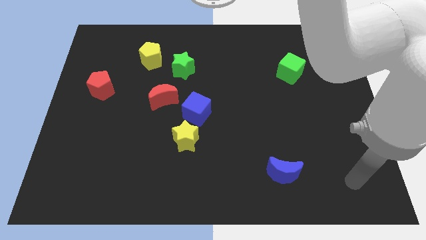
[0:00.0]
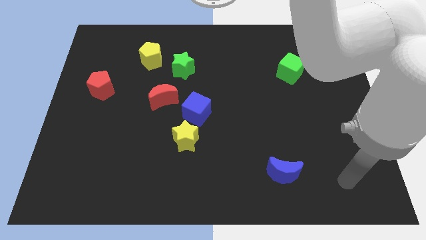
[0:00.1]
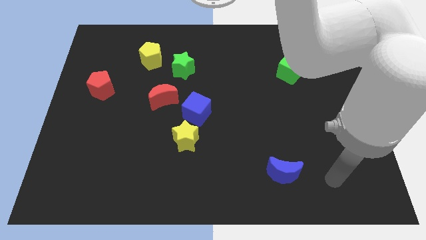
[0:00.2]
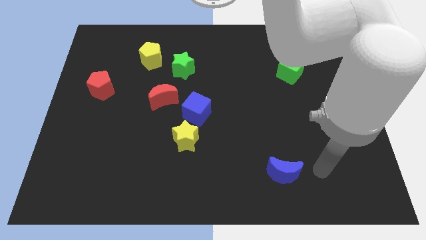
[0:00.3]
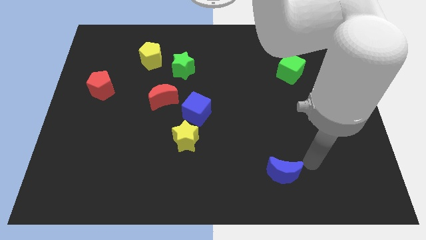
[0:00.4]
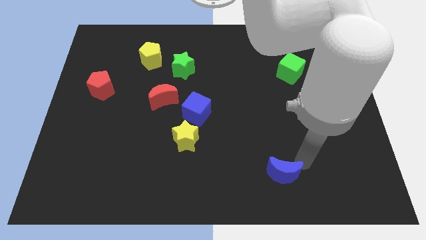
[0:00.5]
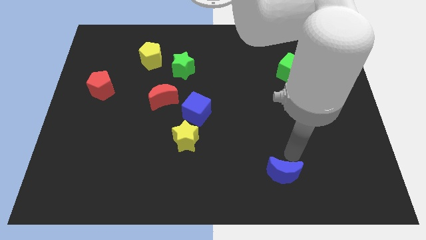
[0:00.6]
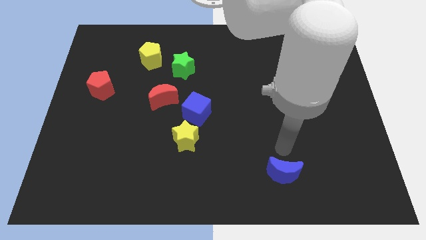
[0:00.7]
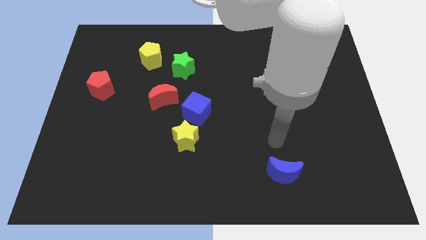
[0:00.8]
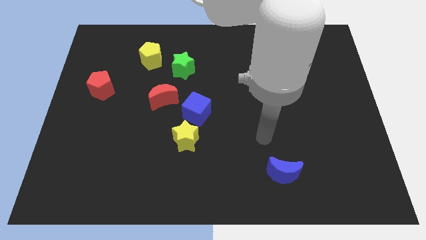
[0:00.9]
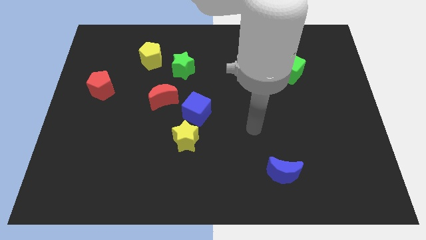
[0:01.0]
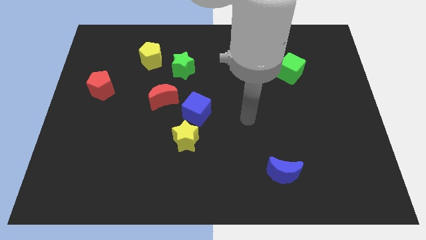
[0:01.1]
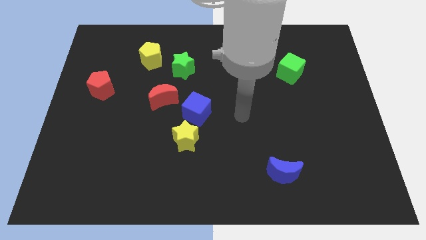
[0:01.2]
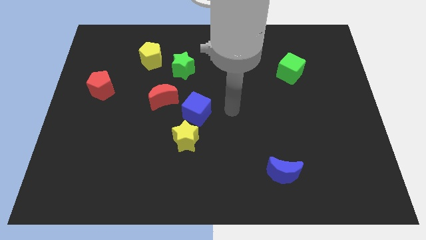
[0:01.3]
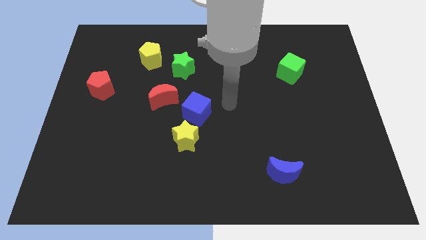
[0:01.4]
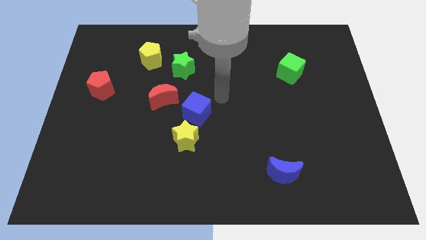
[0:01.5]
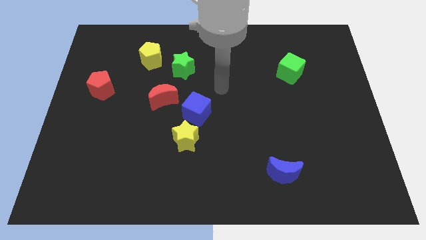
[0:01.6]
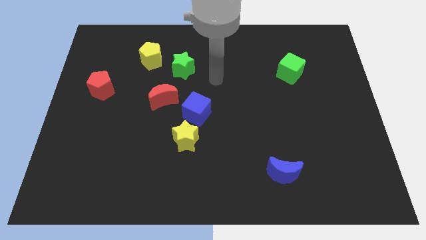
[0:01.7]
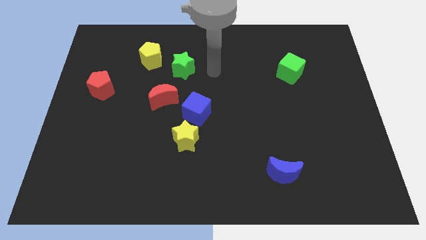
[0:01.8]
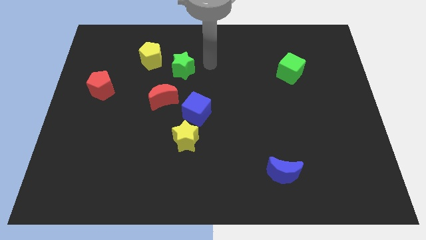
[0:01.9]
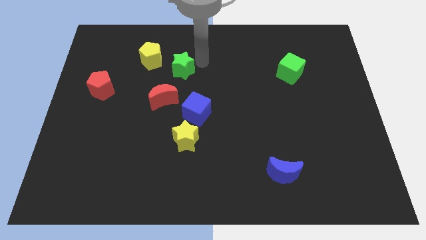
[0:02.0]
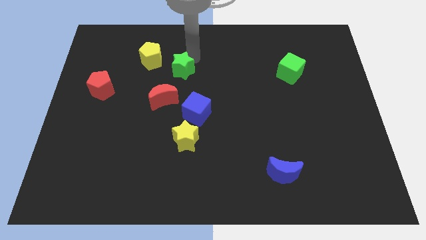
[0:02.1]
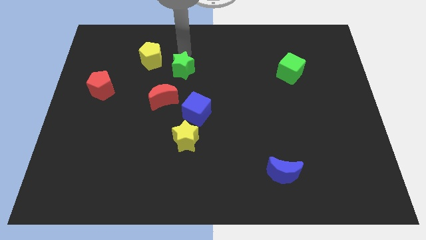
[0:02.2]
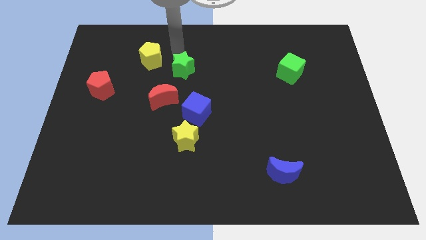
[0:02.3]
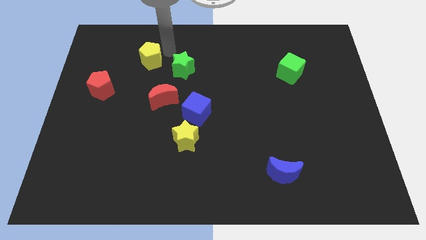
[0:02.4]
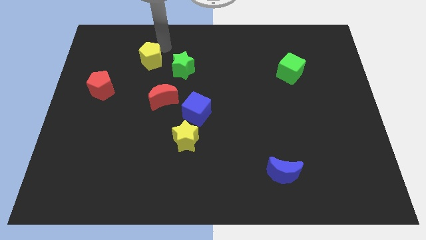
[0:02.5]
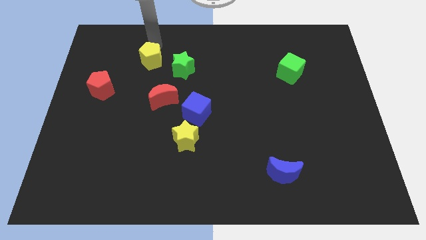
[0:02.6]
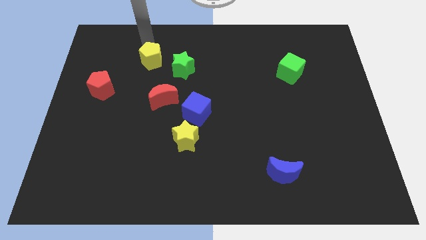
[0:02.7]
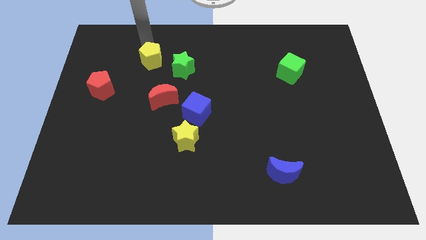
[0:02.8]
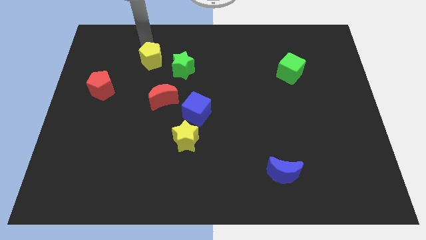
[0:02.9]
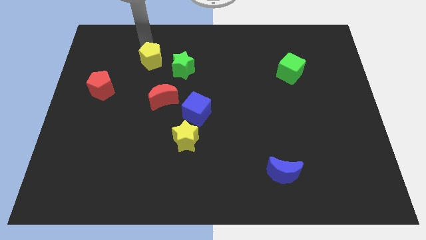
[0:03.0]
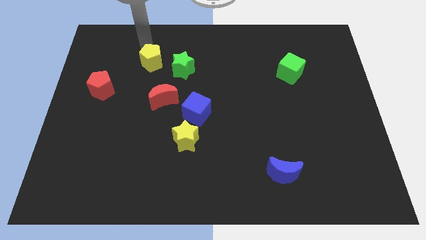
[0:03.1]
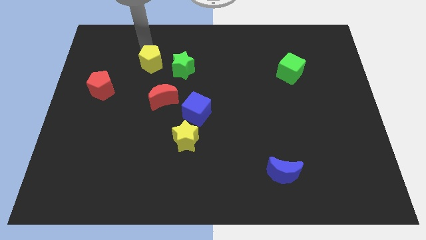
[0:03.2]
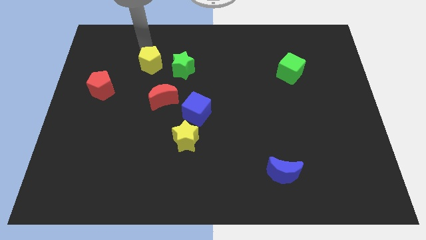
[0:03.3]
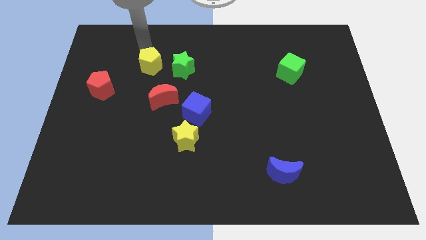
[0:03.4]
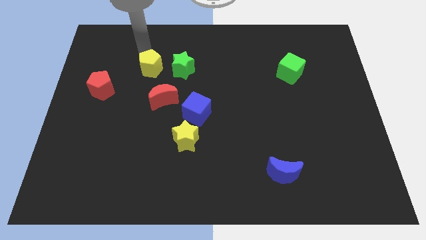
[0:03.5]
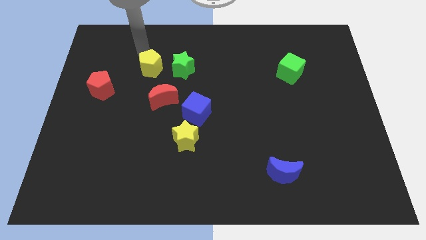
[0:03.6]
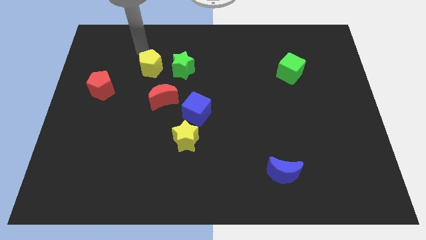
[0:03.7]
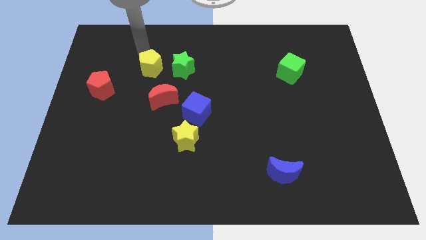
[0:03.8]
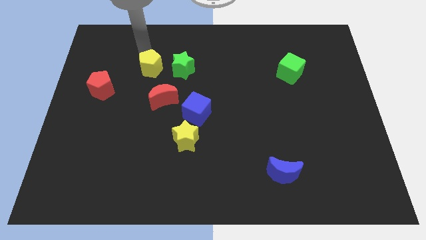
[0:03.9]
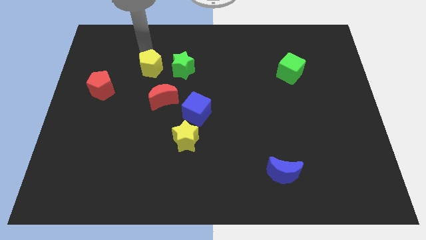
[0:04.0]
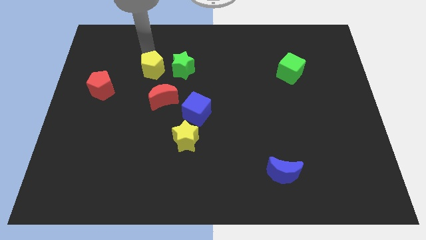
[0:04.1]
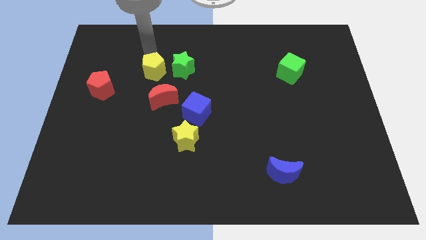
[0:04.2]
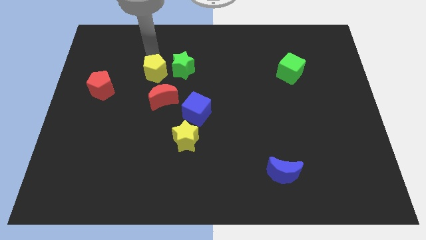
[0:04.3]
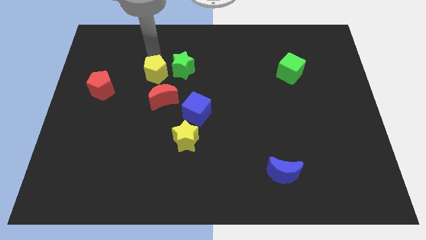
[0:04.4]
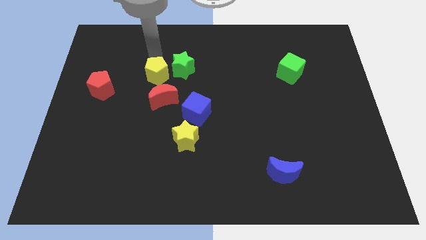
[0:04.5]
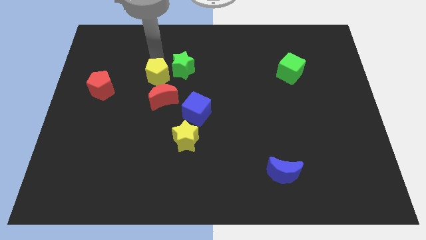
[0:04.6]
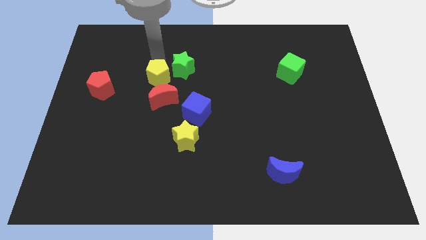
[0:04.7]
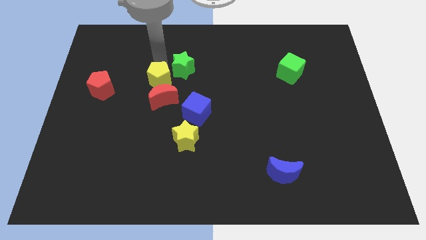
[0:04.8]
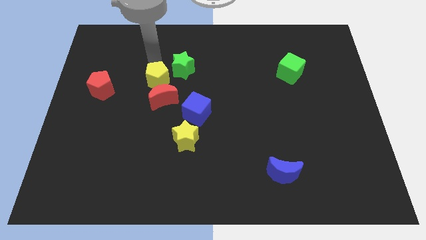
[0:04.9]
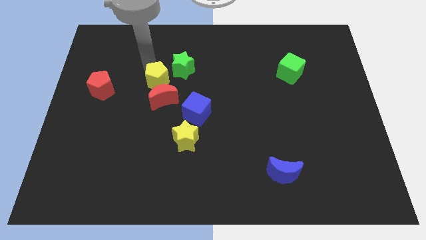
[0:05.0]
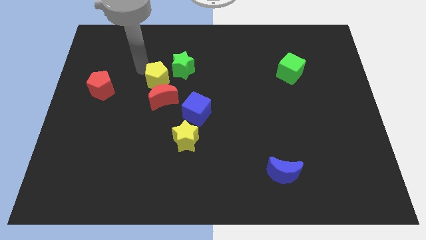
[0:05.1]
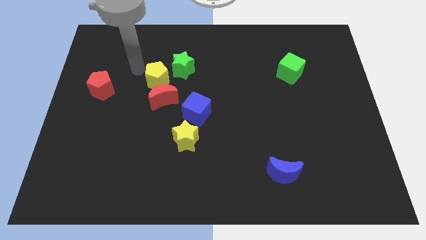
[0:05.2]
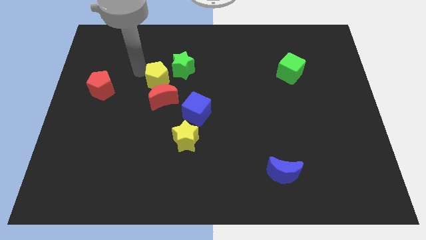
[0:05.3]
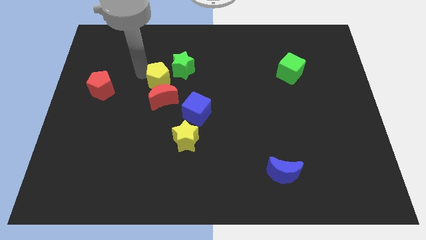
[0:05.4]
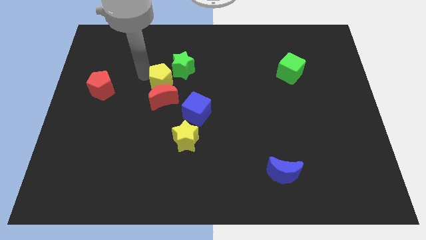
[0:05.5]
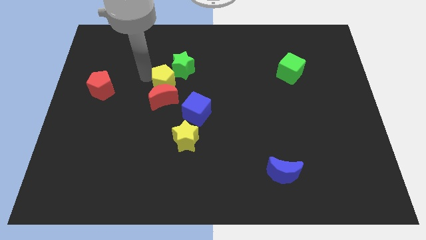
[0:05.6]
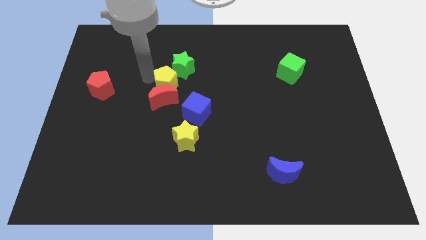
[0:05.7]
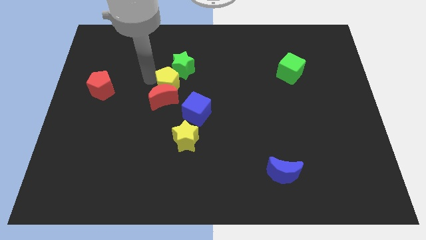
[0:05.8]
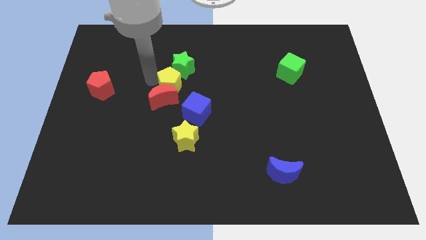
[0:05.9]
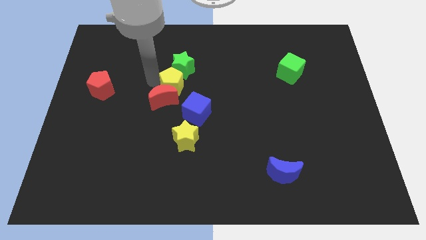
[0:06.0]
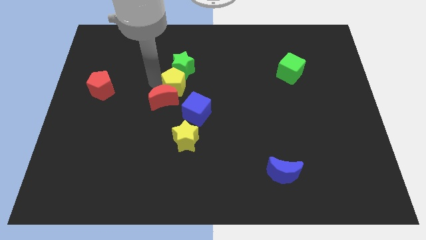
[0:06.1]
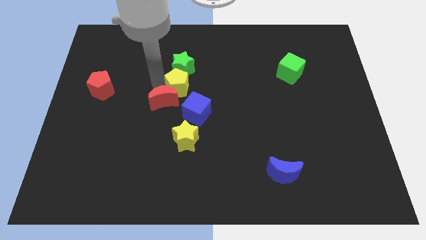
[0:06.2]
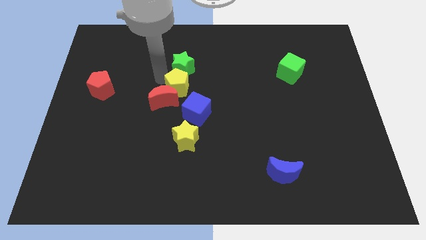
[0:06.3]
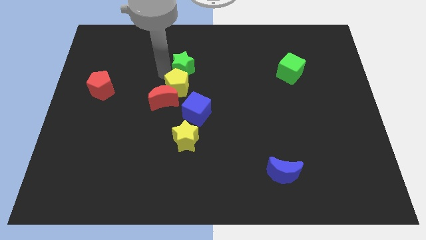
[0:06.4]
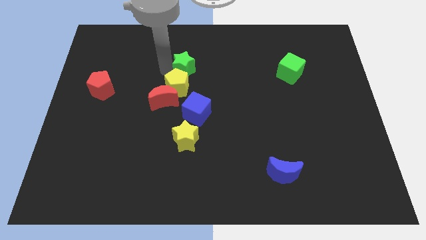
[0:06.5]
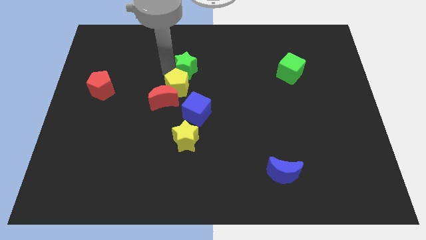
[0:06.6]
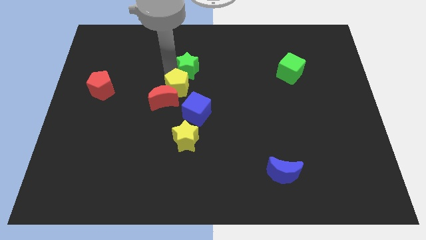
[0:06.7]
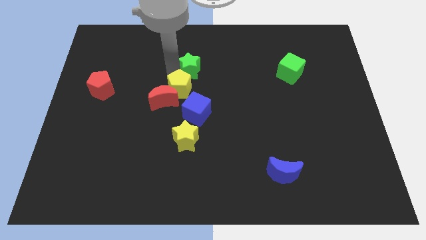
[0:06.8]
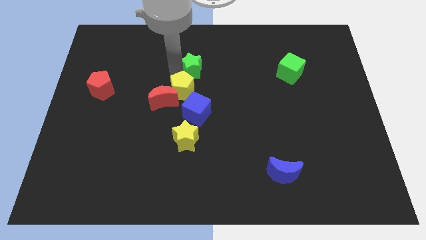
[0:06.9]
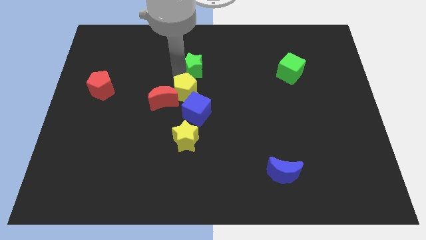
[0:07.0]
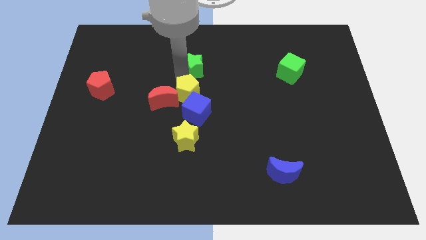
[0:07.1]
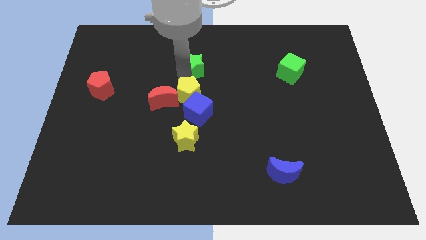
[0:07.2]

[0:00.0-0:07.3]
put the yellow pentagon to the blue cube

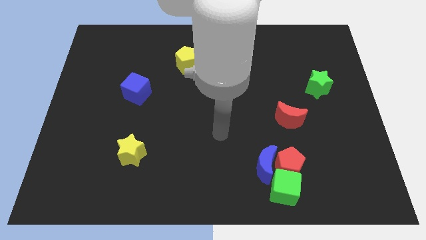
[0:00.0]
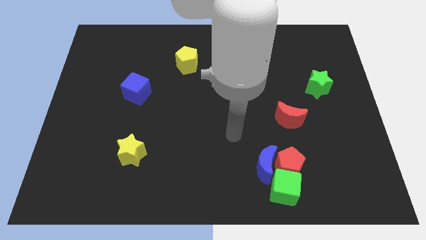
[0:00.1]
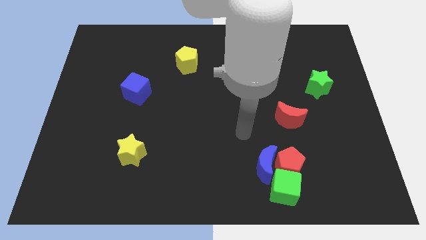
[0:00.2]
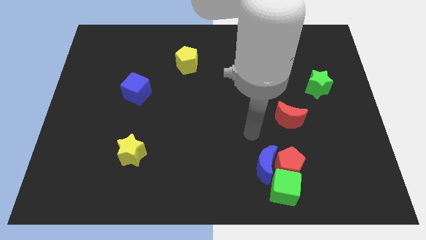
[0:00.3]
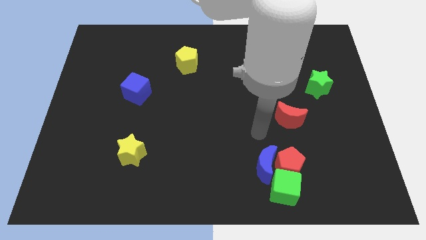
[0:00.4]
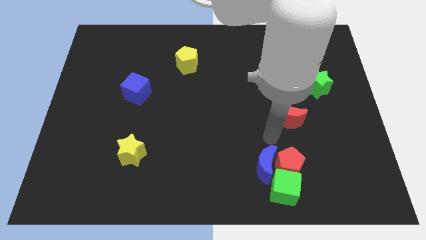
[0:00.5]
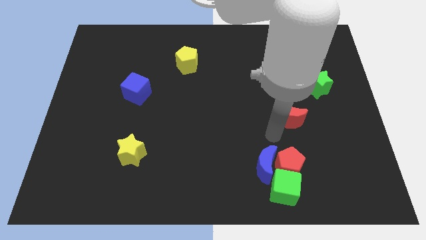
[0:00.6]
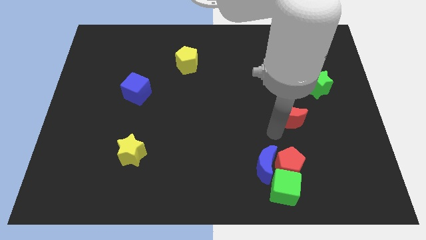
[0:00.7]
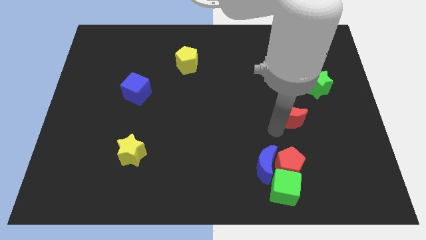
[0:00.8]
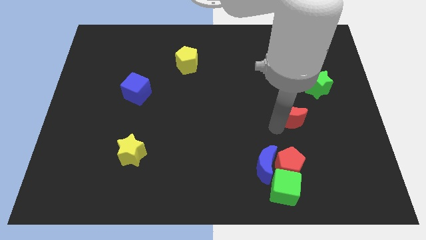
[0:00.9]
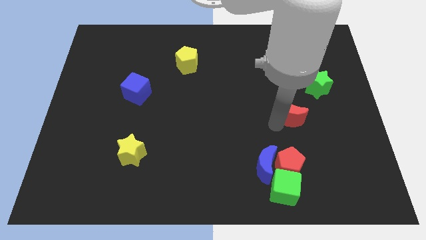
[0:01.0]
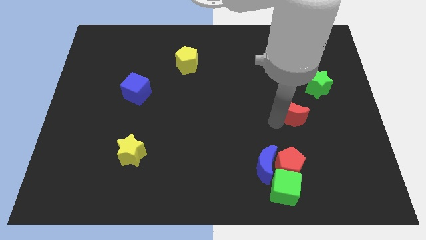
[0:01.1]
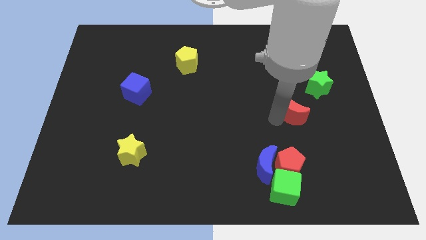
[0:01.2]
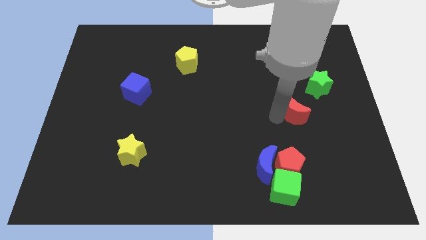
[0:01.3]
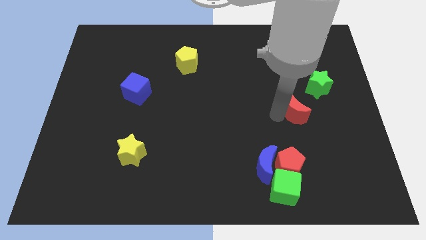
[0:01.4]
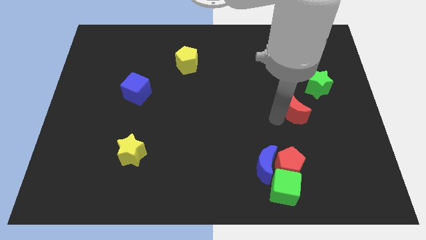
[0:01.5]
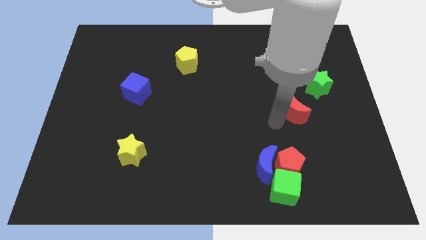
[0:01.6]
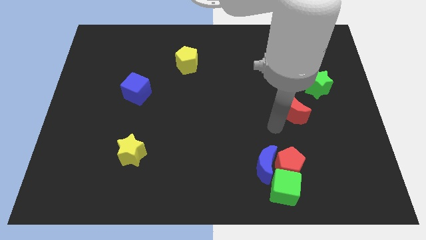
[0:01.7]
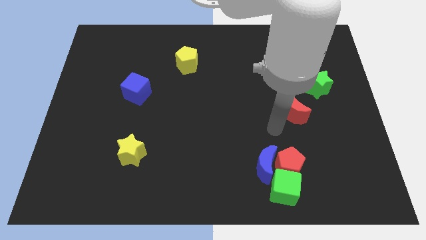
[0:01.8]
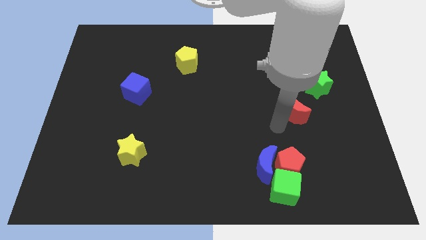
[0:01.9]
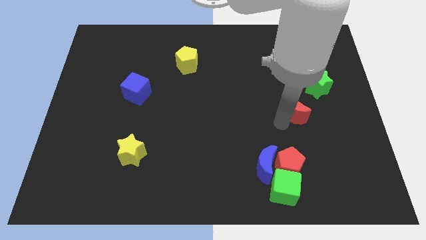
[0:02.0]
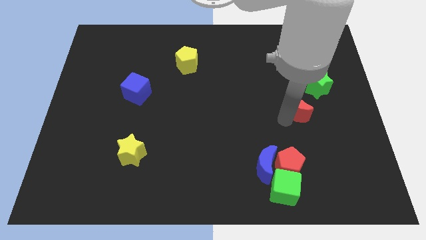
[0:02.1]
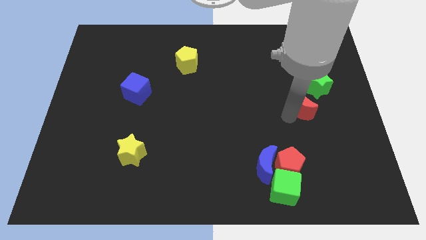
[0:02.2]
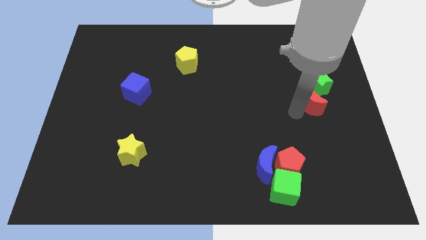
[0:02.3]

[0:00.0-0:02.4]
put the red moon next to the green star
